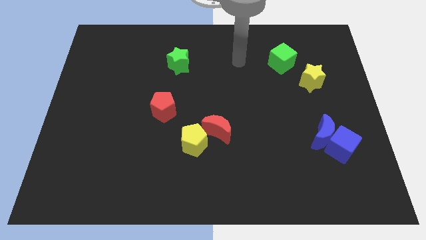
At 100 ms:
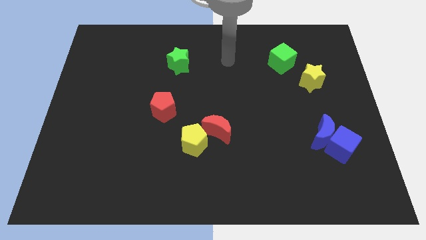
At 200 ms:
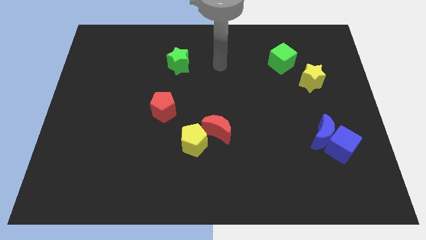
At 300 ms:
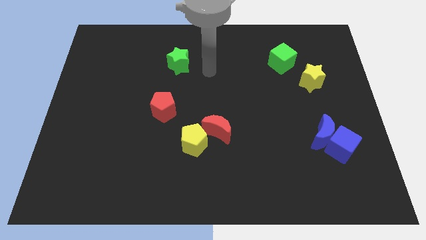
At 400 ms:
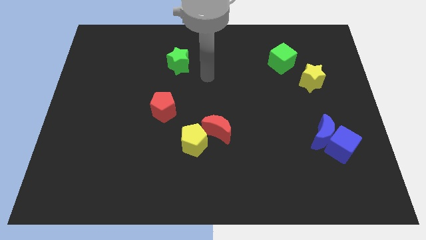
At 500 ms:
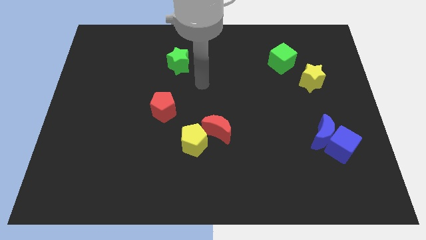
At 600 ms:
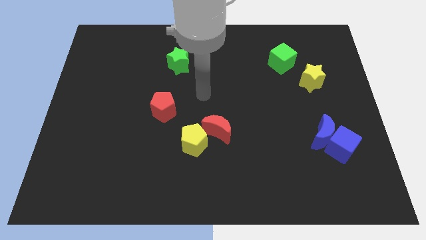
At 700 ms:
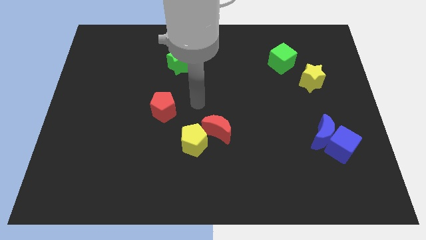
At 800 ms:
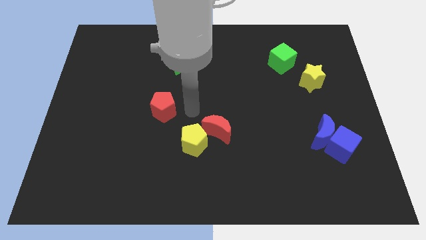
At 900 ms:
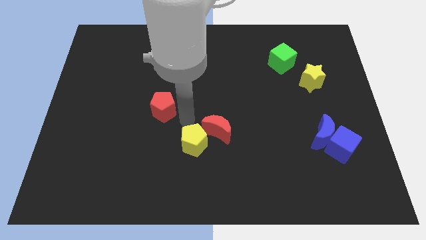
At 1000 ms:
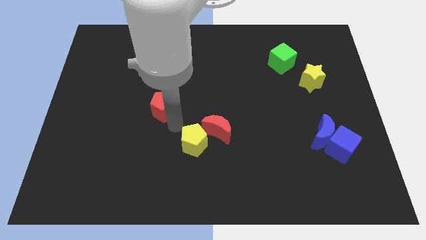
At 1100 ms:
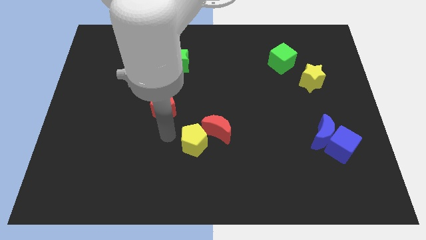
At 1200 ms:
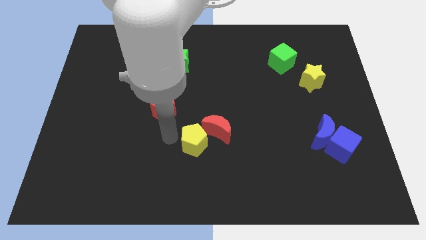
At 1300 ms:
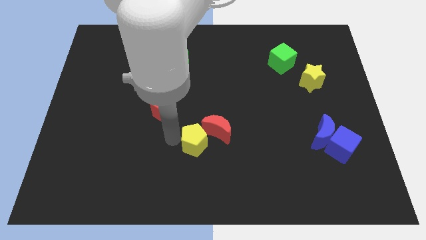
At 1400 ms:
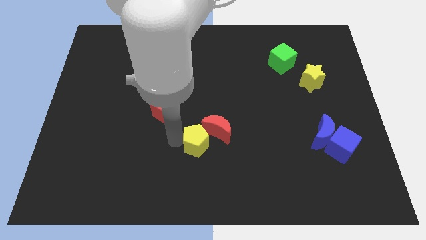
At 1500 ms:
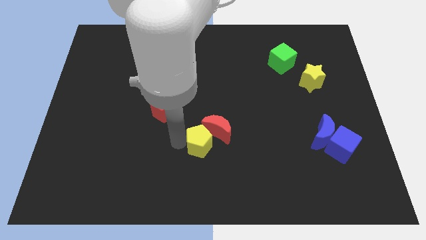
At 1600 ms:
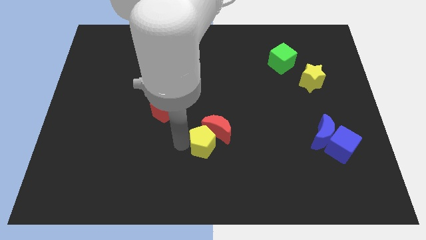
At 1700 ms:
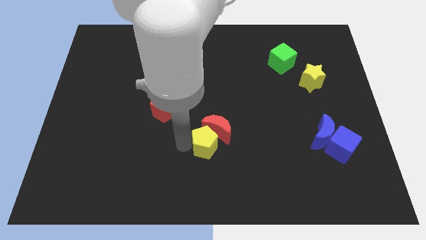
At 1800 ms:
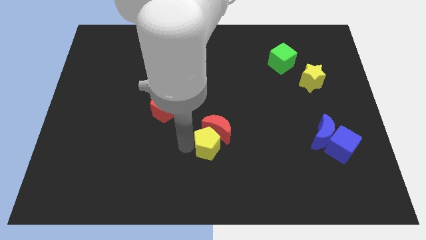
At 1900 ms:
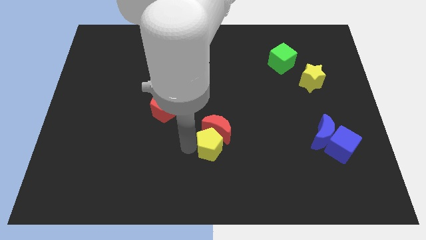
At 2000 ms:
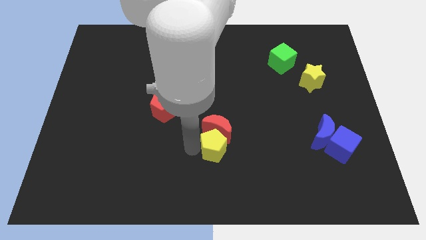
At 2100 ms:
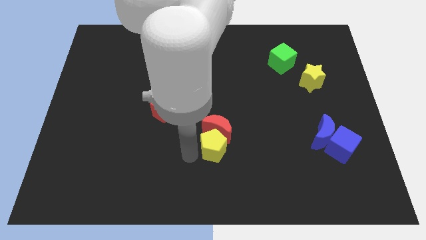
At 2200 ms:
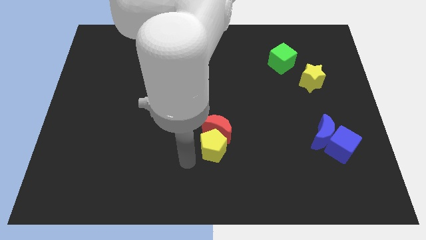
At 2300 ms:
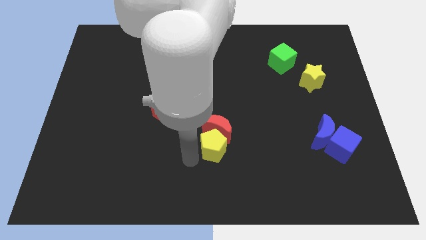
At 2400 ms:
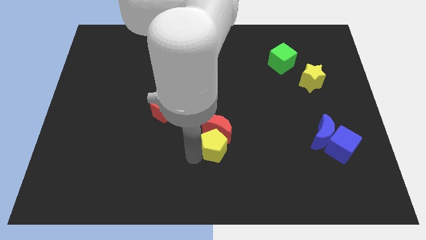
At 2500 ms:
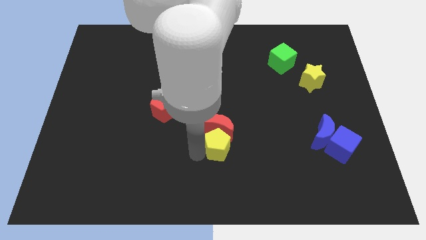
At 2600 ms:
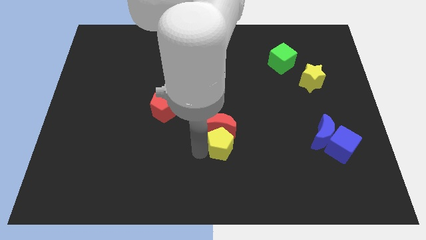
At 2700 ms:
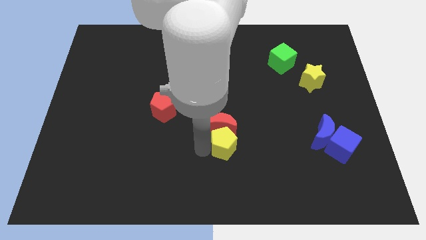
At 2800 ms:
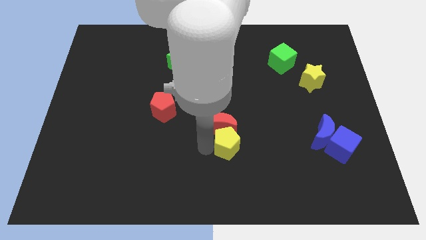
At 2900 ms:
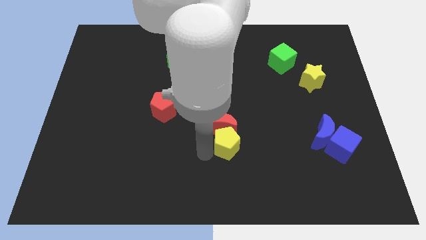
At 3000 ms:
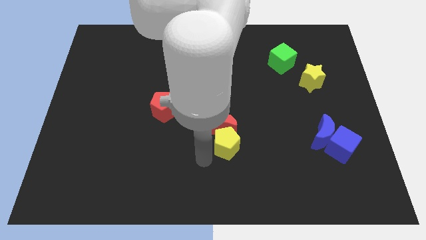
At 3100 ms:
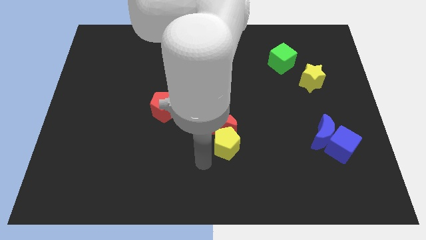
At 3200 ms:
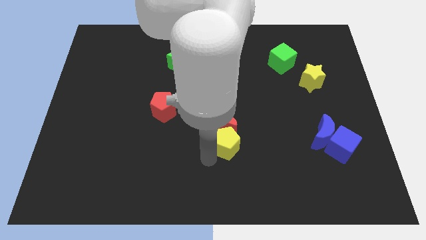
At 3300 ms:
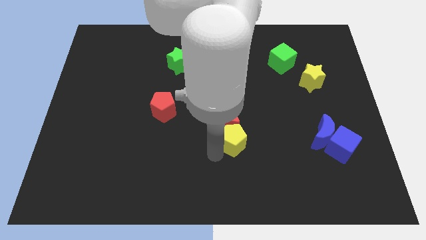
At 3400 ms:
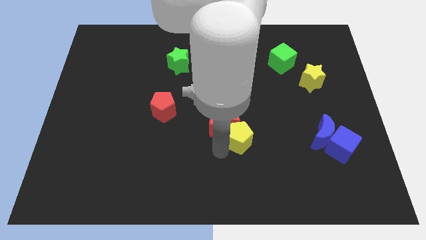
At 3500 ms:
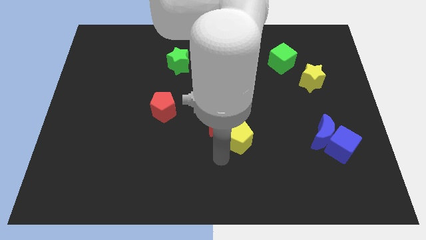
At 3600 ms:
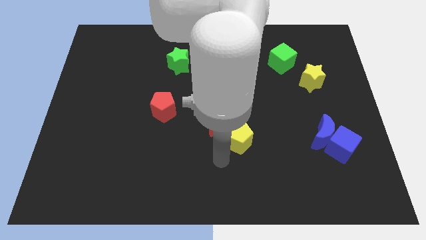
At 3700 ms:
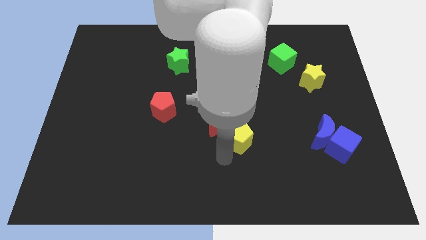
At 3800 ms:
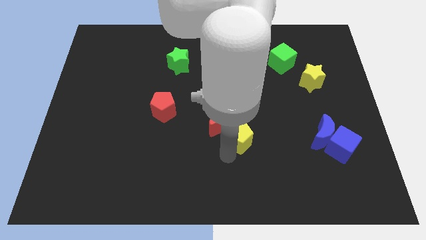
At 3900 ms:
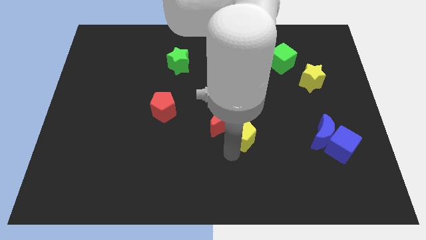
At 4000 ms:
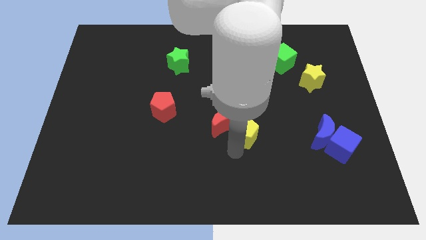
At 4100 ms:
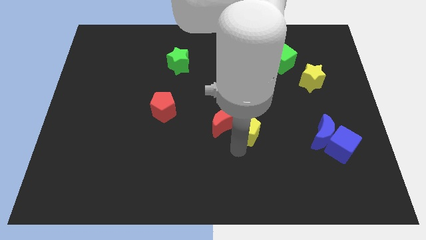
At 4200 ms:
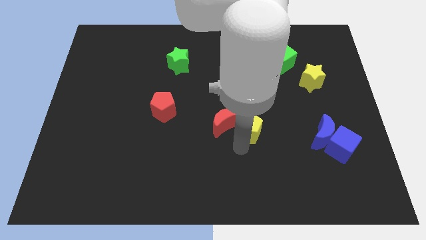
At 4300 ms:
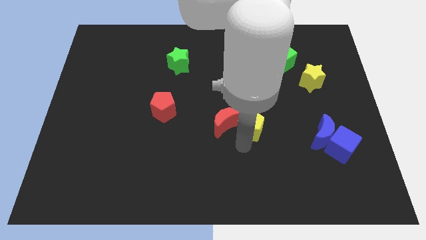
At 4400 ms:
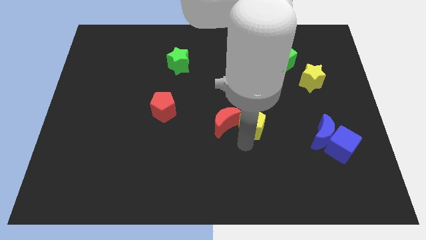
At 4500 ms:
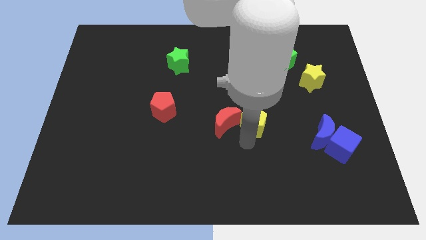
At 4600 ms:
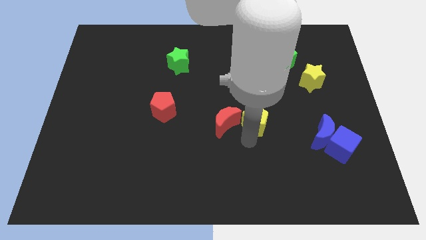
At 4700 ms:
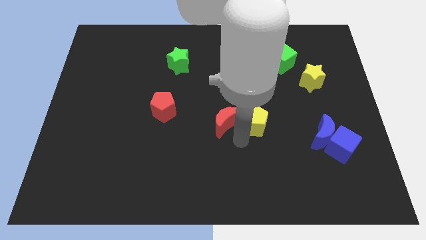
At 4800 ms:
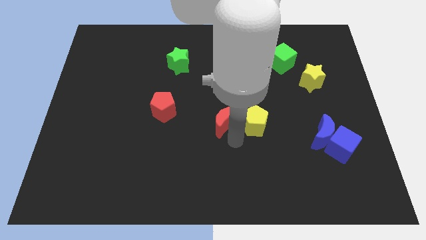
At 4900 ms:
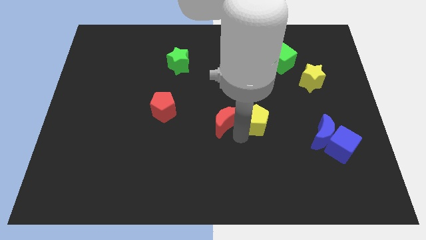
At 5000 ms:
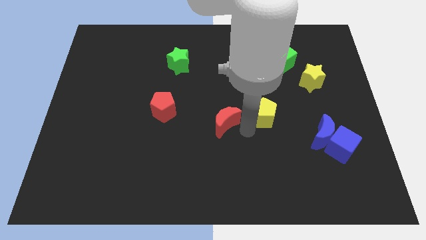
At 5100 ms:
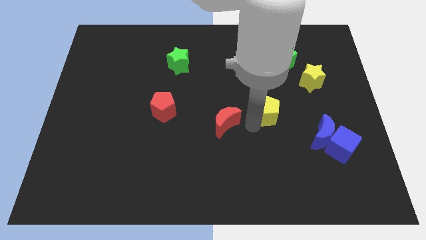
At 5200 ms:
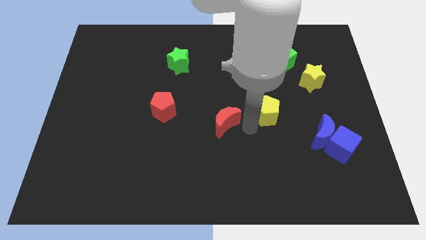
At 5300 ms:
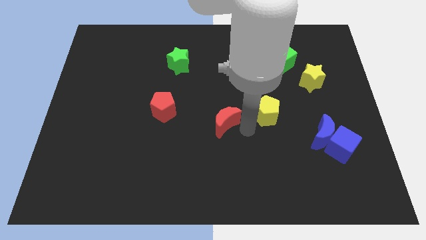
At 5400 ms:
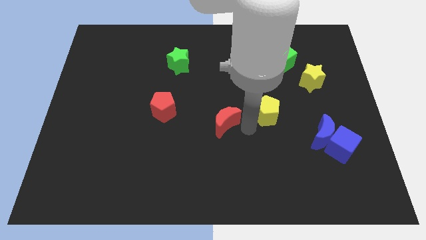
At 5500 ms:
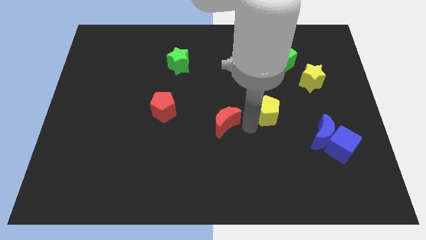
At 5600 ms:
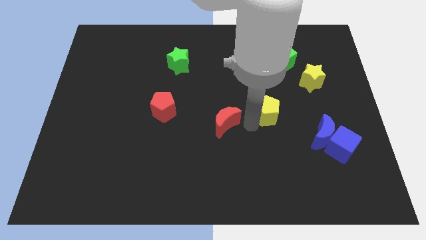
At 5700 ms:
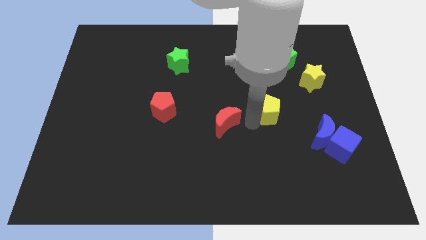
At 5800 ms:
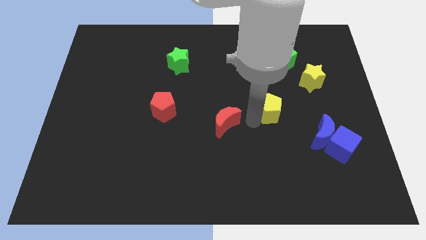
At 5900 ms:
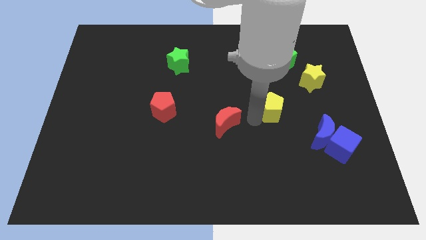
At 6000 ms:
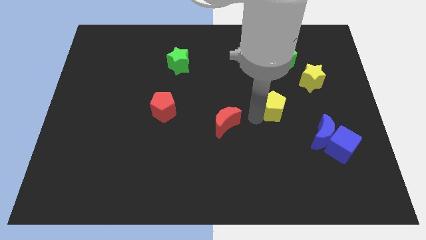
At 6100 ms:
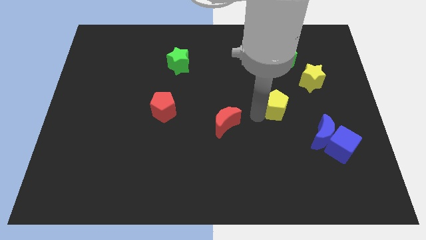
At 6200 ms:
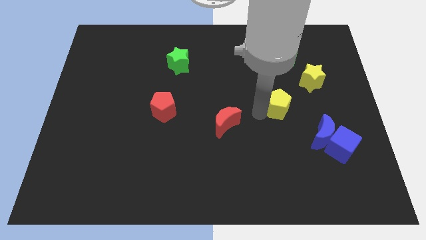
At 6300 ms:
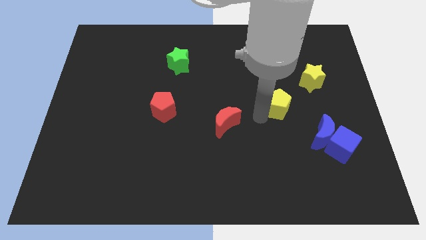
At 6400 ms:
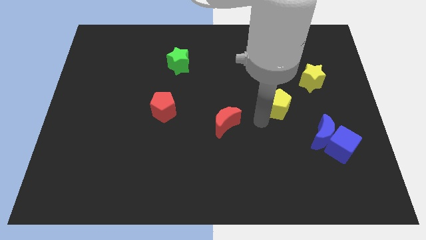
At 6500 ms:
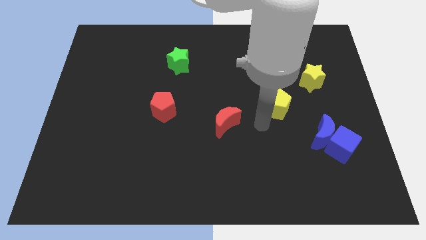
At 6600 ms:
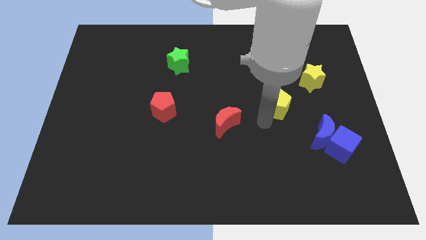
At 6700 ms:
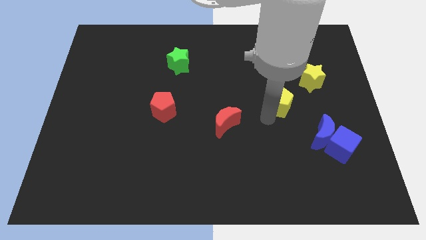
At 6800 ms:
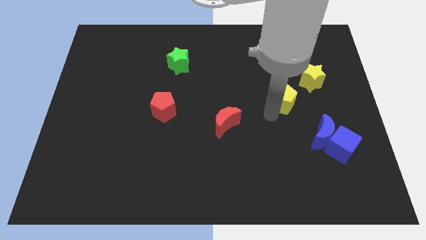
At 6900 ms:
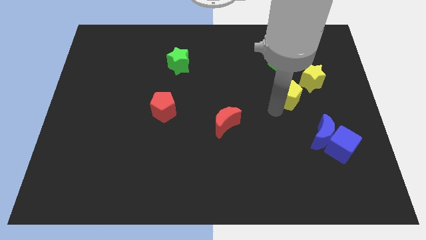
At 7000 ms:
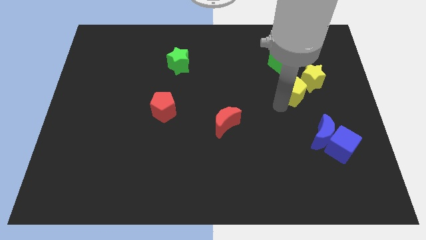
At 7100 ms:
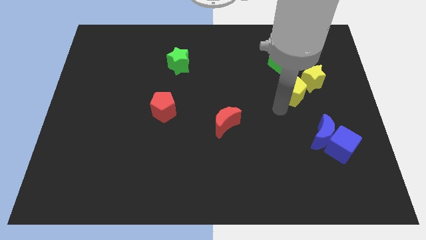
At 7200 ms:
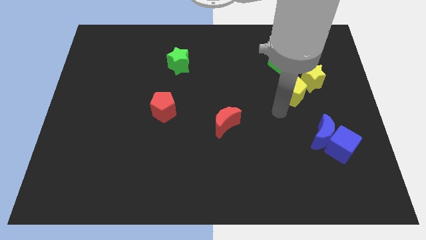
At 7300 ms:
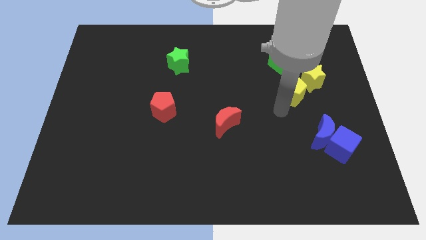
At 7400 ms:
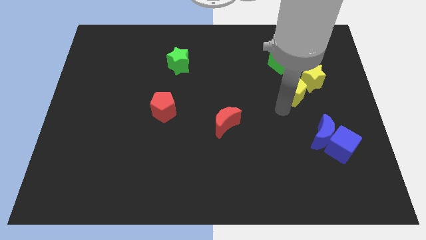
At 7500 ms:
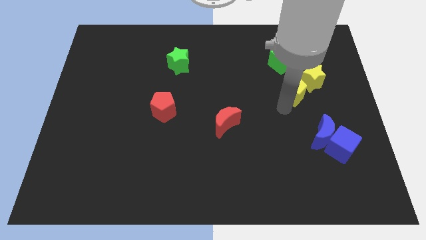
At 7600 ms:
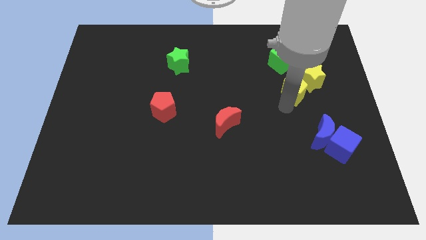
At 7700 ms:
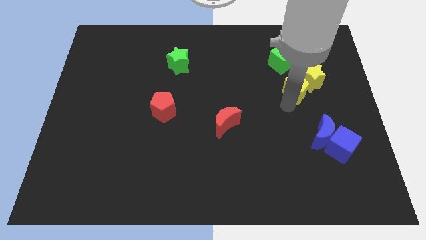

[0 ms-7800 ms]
move the yellow pentagon next to the yellow star
